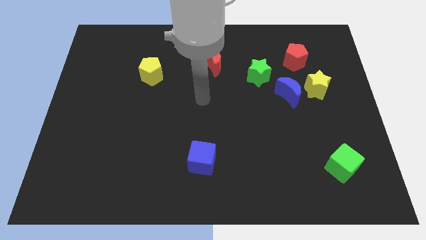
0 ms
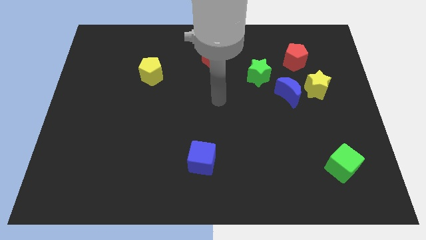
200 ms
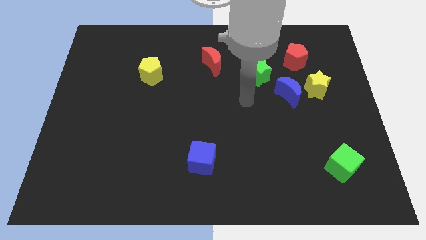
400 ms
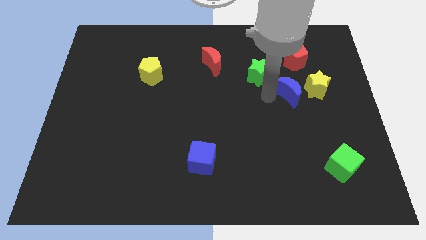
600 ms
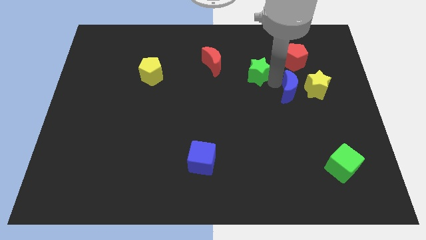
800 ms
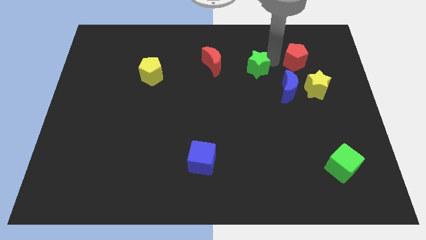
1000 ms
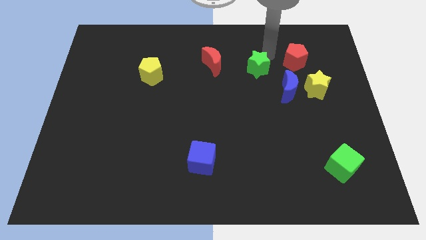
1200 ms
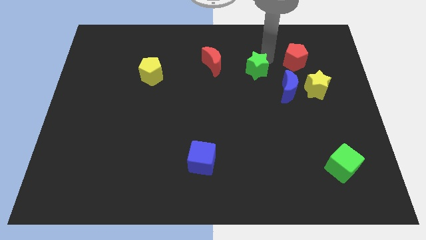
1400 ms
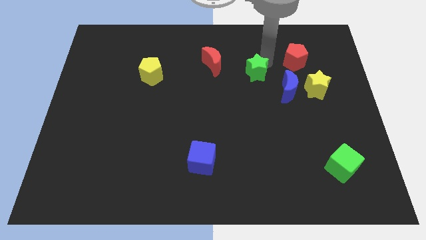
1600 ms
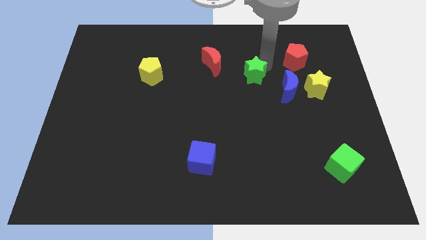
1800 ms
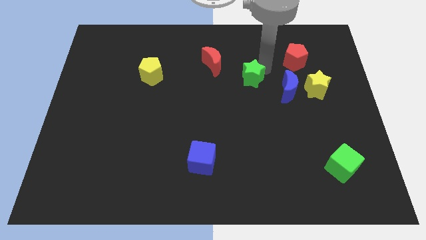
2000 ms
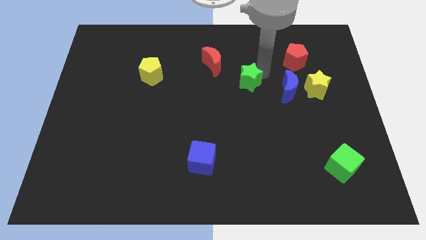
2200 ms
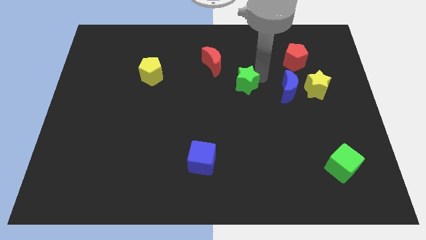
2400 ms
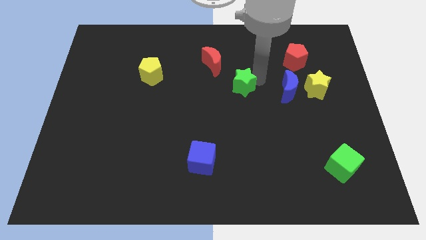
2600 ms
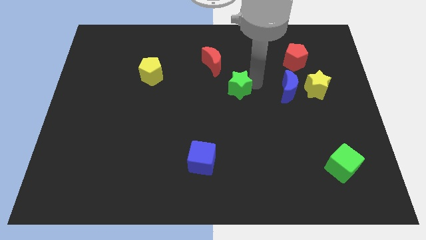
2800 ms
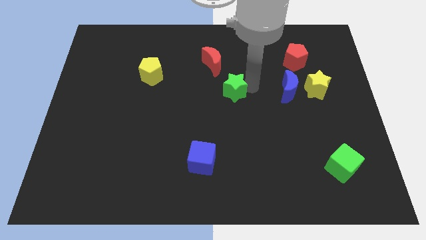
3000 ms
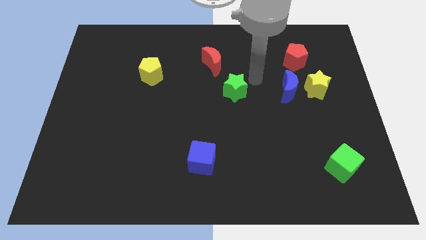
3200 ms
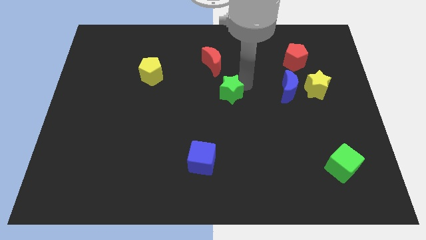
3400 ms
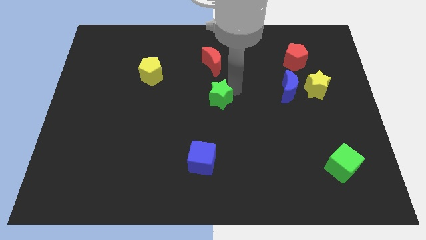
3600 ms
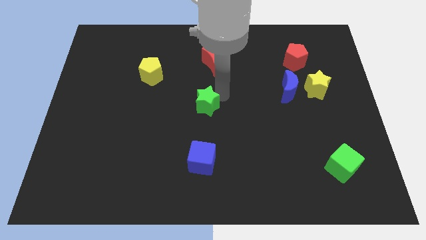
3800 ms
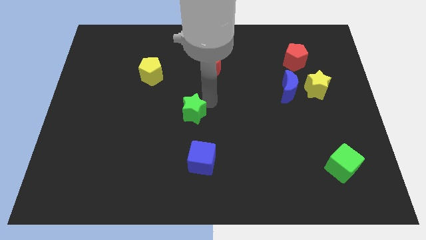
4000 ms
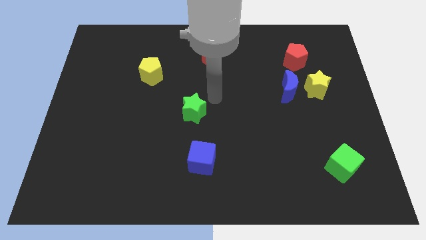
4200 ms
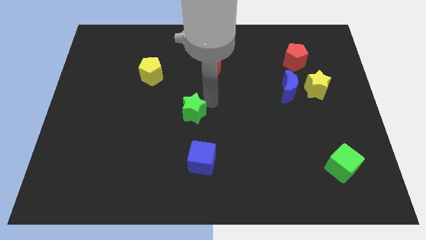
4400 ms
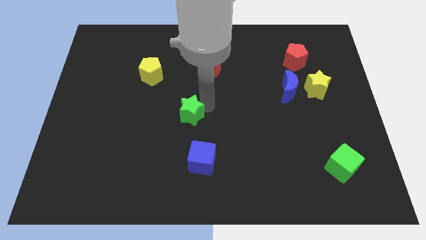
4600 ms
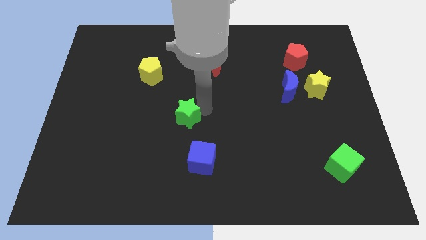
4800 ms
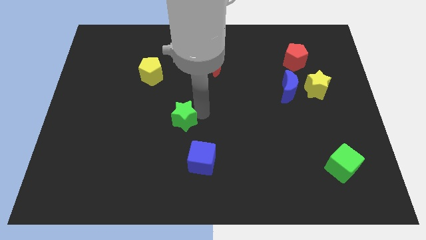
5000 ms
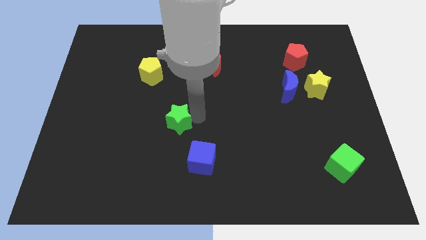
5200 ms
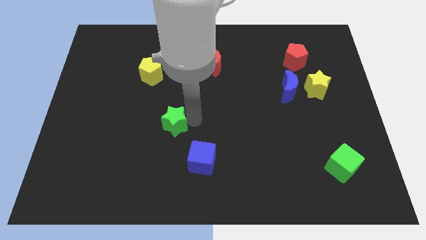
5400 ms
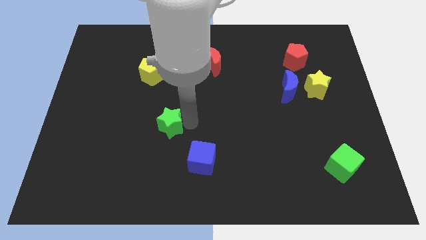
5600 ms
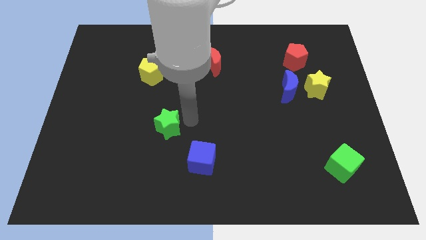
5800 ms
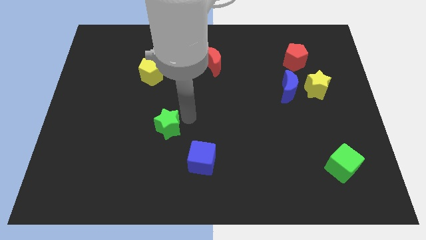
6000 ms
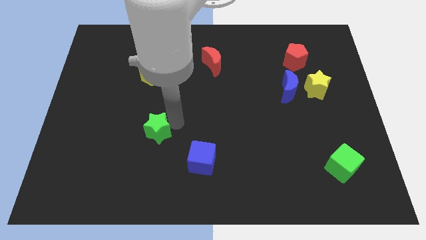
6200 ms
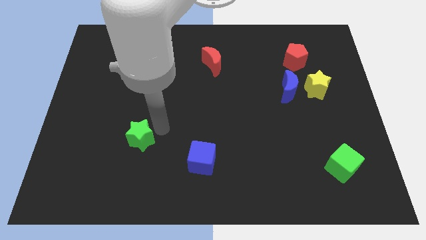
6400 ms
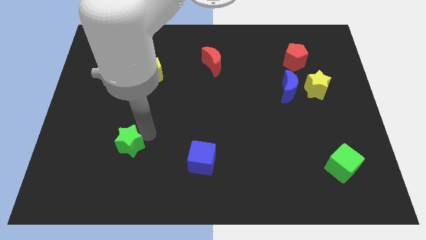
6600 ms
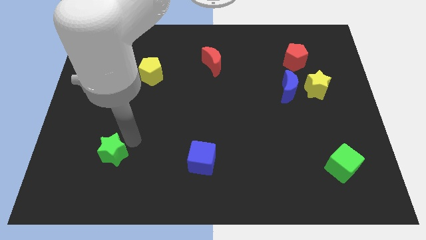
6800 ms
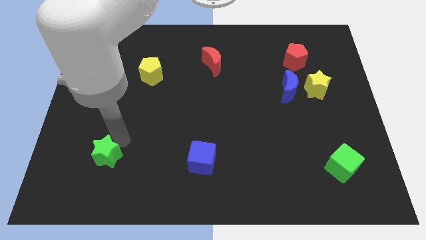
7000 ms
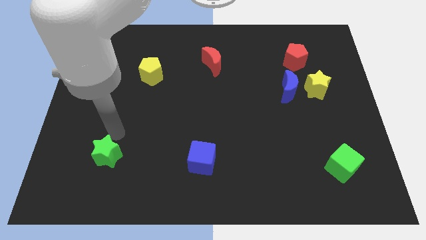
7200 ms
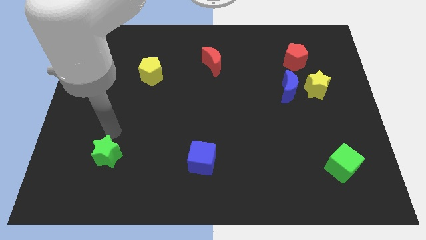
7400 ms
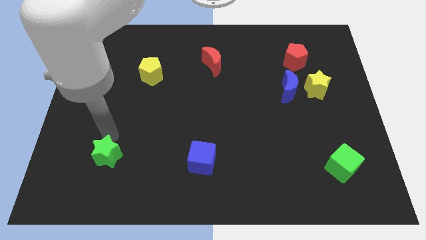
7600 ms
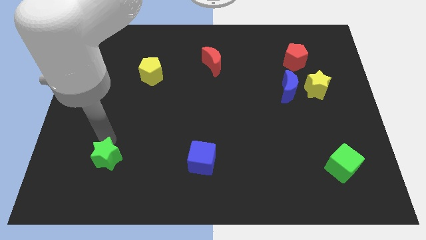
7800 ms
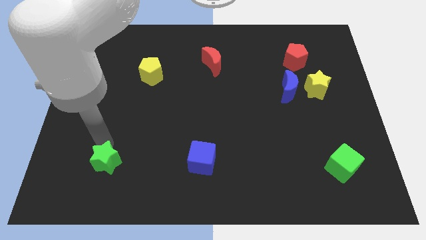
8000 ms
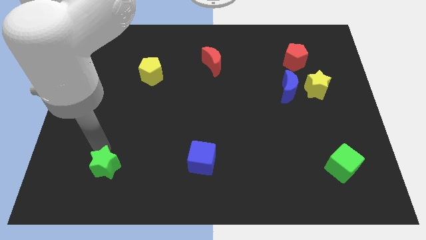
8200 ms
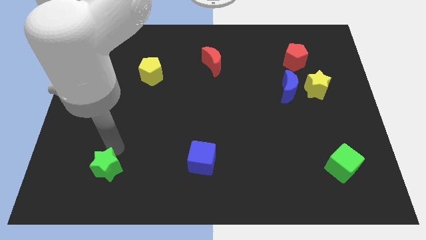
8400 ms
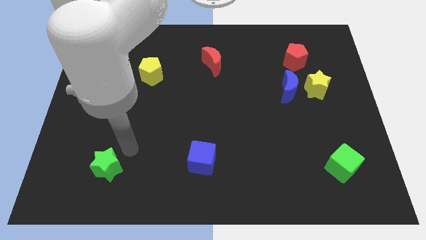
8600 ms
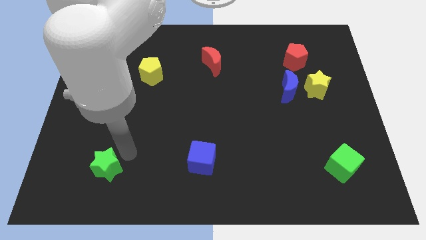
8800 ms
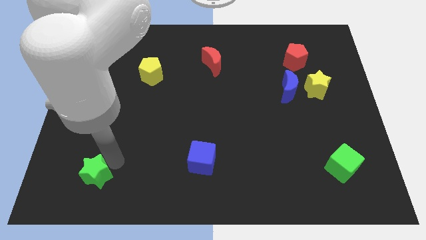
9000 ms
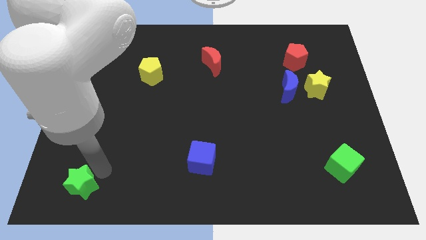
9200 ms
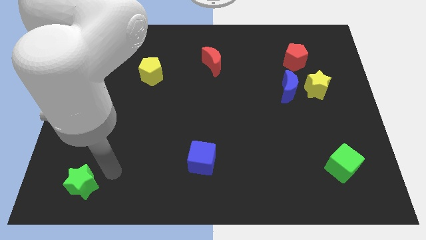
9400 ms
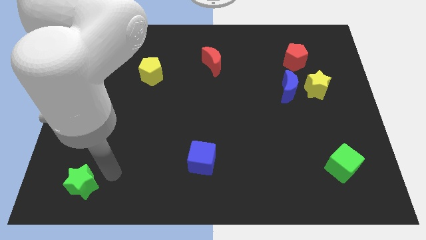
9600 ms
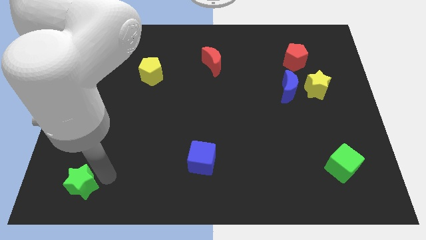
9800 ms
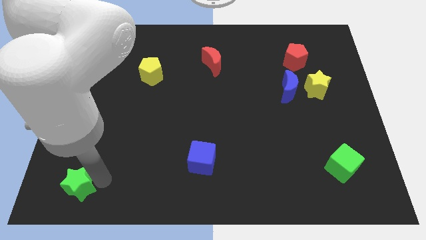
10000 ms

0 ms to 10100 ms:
slide the green star to the bottom left of the board

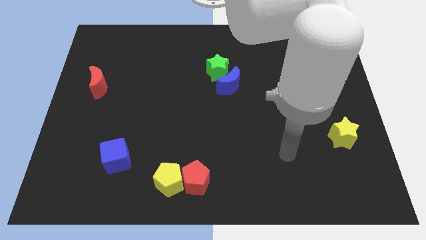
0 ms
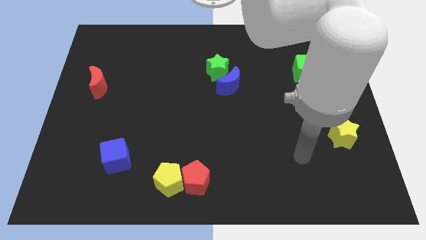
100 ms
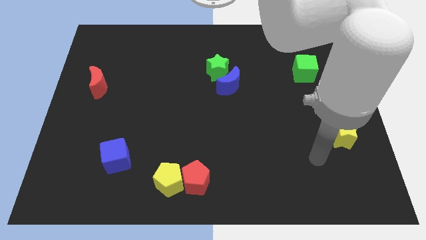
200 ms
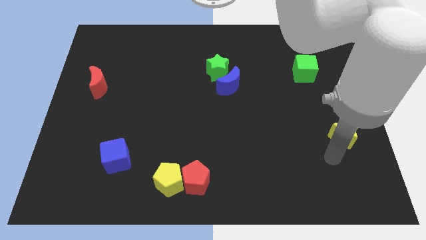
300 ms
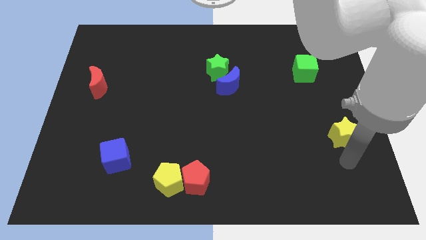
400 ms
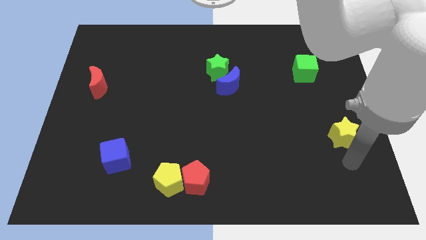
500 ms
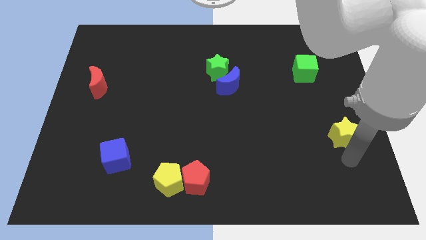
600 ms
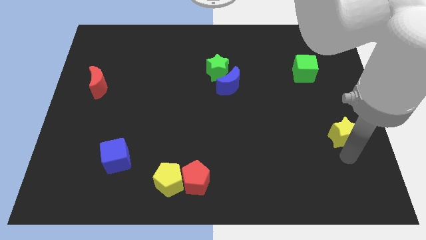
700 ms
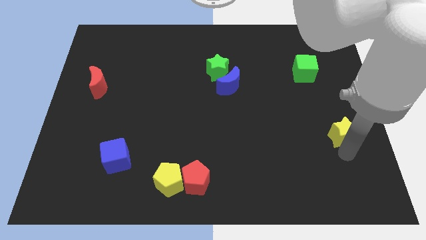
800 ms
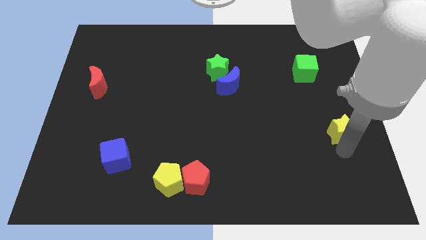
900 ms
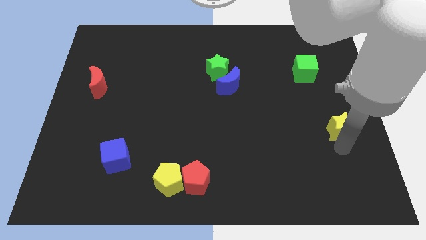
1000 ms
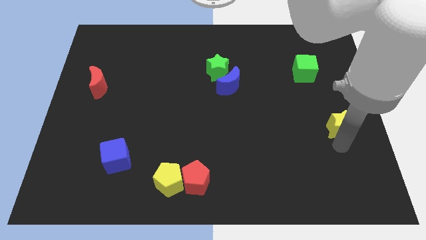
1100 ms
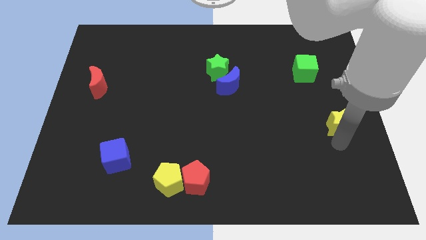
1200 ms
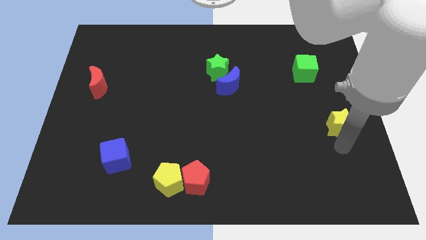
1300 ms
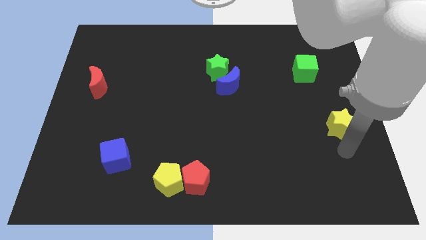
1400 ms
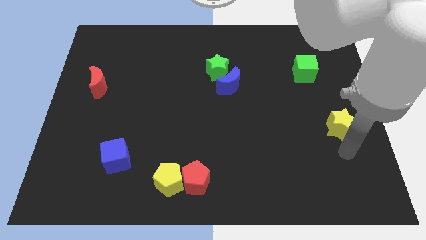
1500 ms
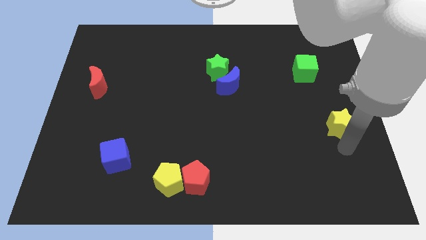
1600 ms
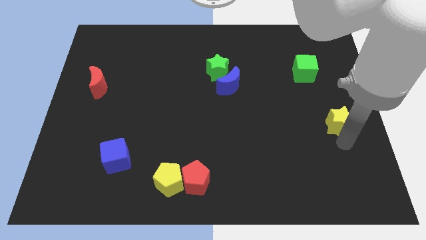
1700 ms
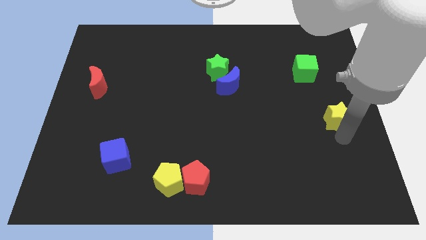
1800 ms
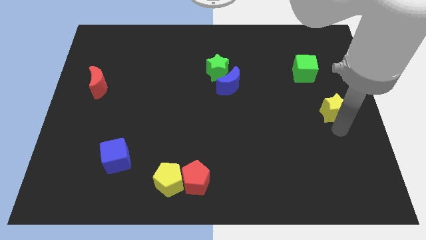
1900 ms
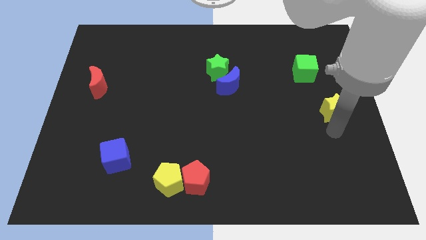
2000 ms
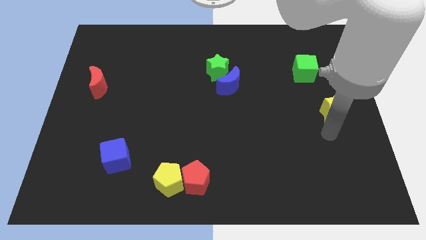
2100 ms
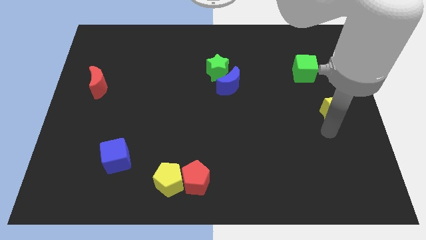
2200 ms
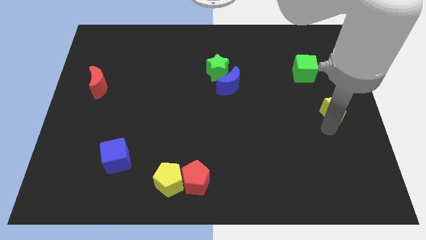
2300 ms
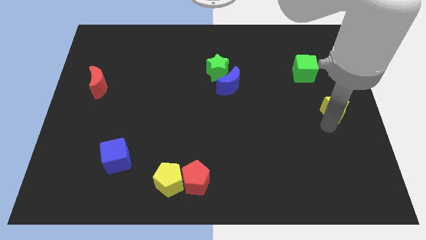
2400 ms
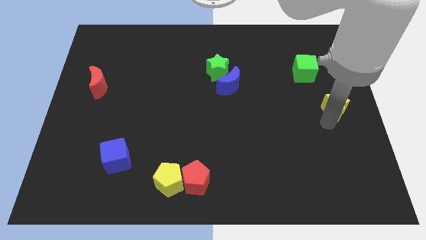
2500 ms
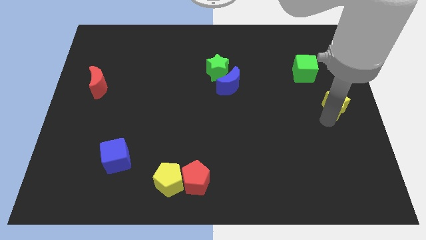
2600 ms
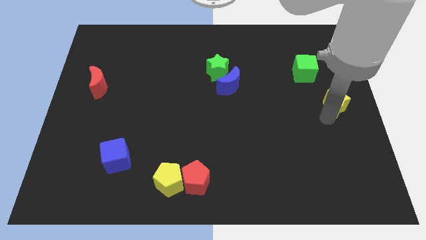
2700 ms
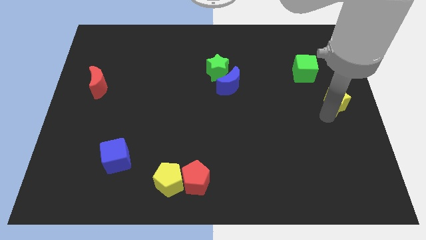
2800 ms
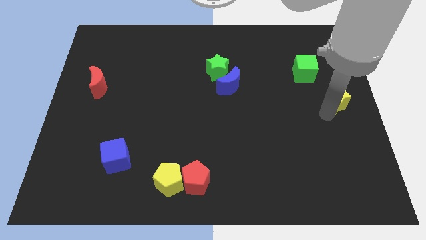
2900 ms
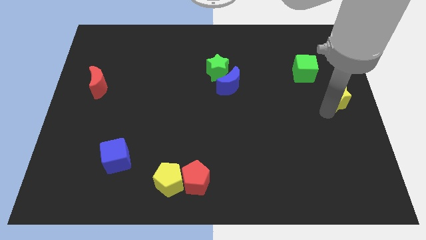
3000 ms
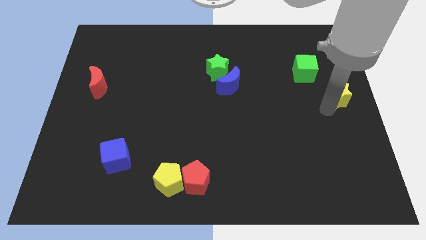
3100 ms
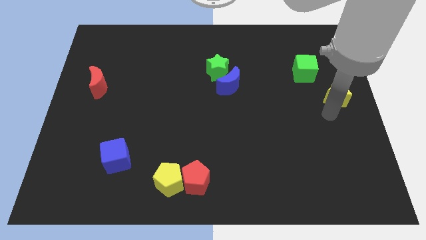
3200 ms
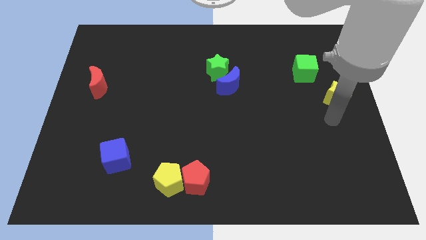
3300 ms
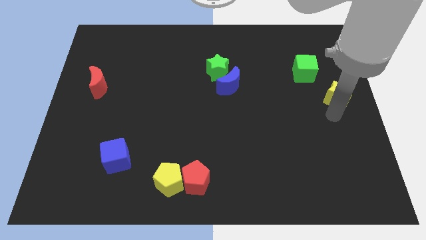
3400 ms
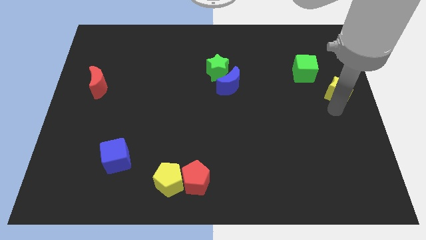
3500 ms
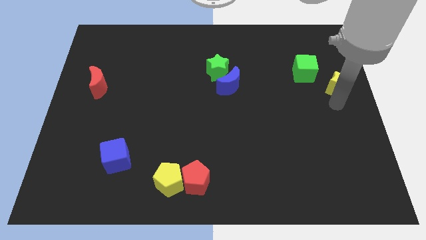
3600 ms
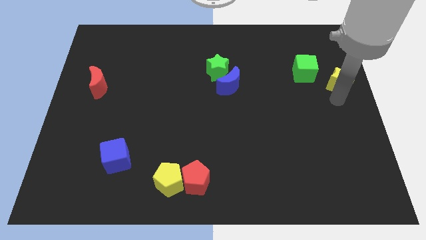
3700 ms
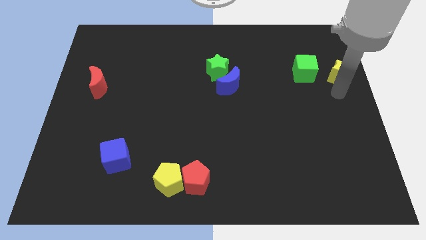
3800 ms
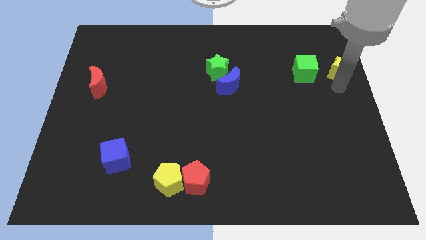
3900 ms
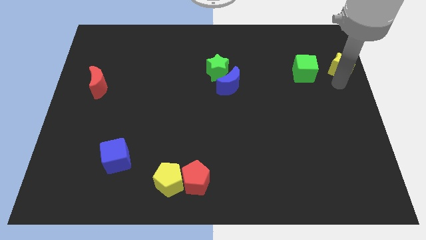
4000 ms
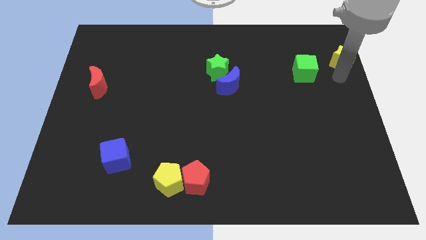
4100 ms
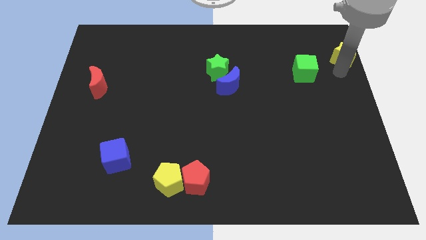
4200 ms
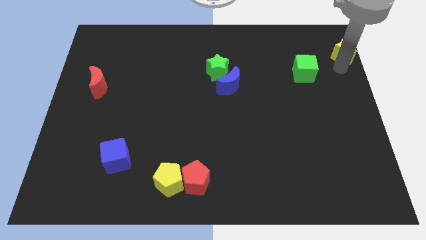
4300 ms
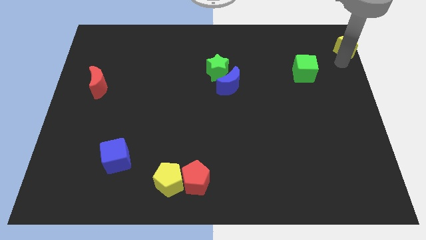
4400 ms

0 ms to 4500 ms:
push the yellow star to the upper right corner
